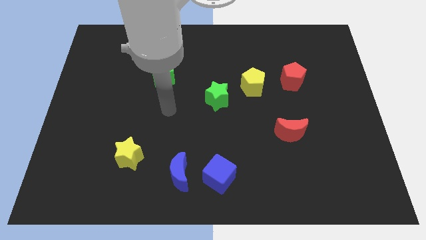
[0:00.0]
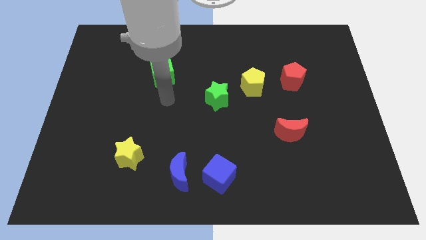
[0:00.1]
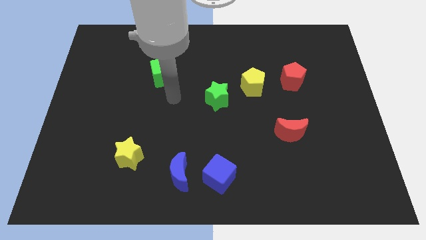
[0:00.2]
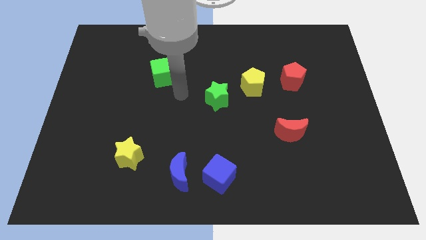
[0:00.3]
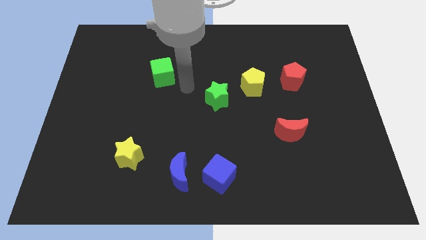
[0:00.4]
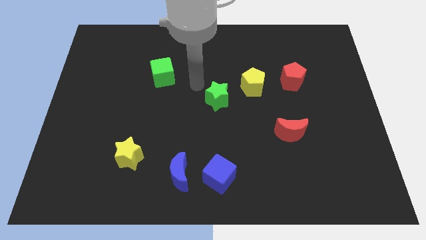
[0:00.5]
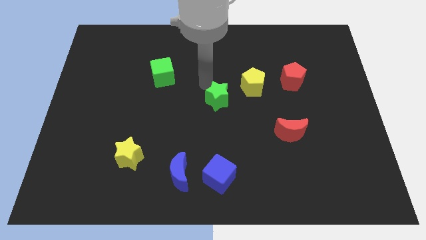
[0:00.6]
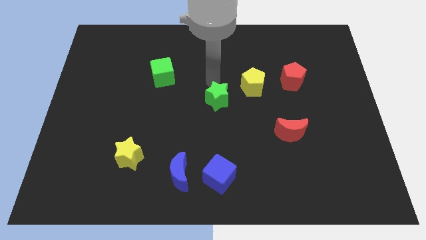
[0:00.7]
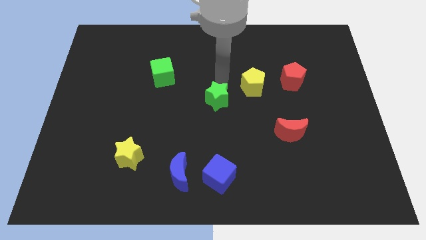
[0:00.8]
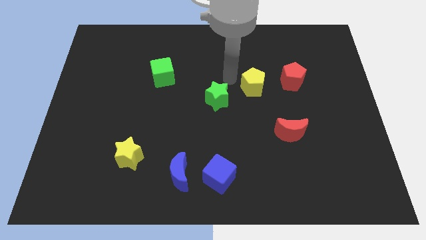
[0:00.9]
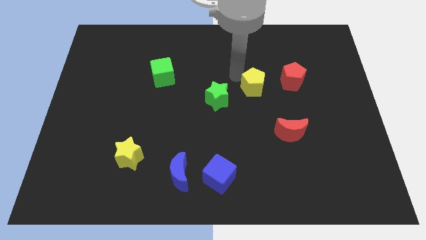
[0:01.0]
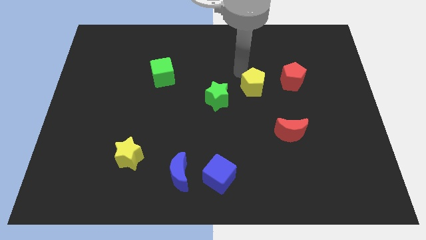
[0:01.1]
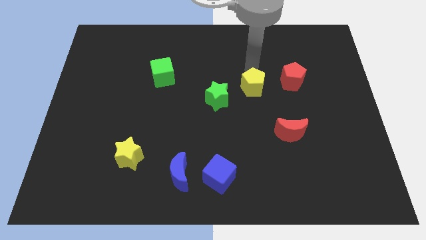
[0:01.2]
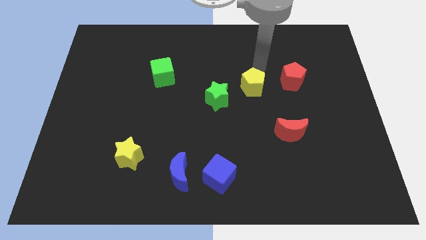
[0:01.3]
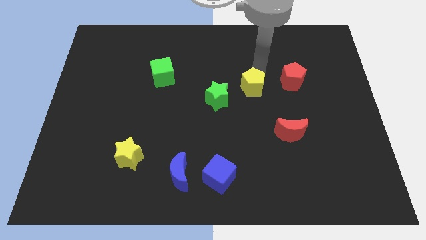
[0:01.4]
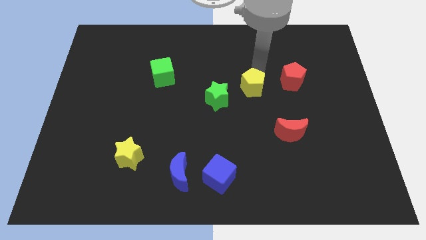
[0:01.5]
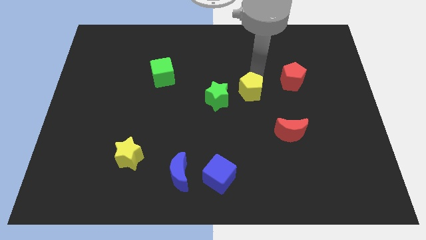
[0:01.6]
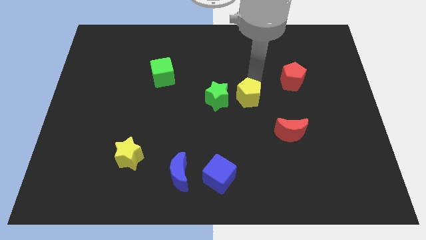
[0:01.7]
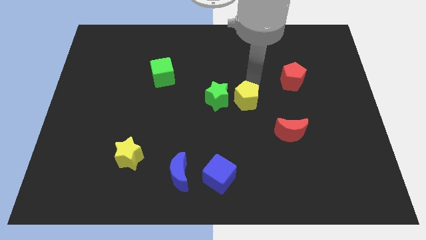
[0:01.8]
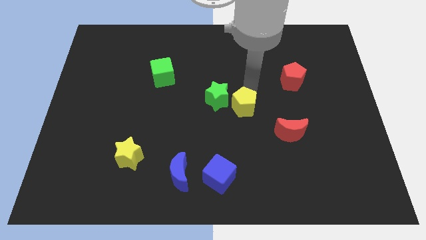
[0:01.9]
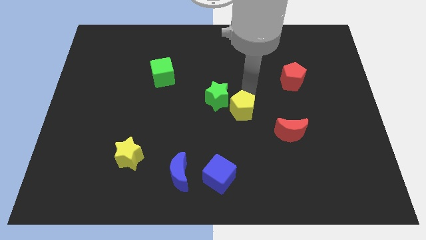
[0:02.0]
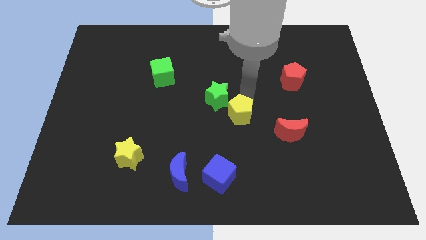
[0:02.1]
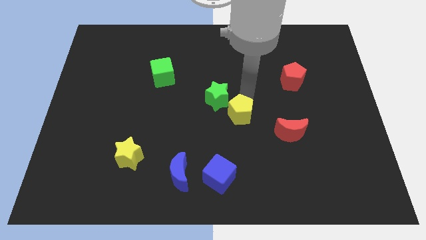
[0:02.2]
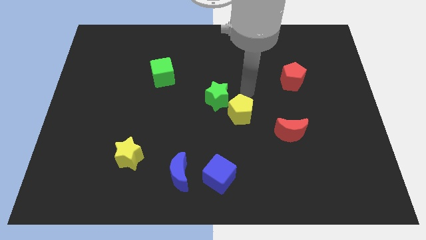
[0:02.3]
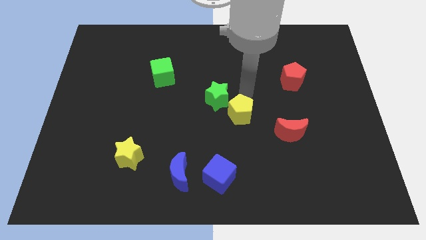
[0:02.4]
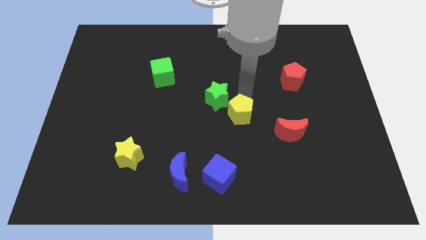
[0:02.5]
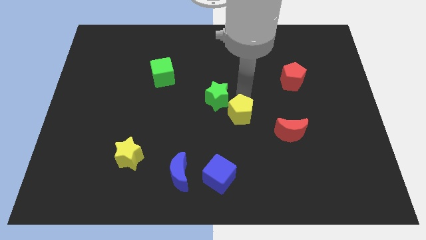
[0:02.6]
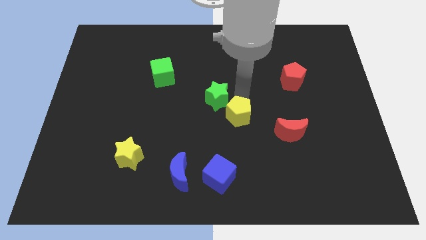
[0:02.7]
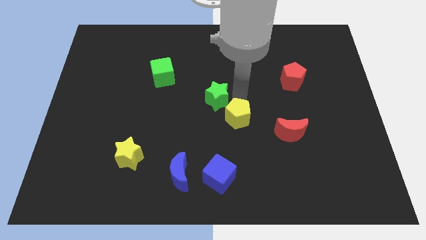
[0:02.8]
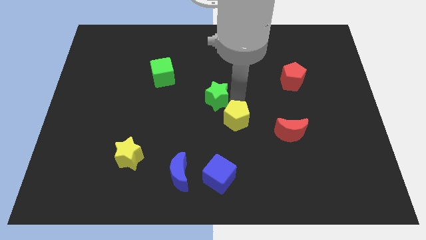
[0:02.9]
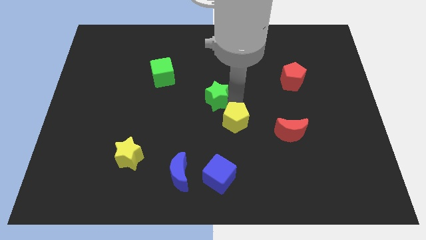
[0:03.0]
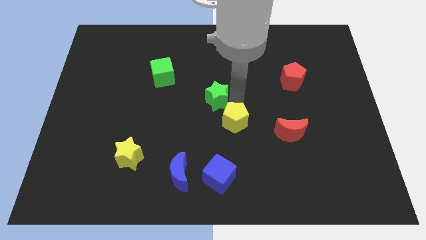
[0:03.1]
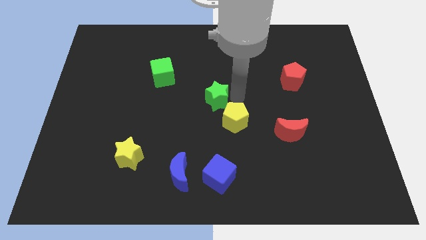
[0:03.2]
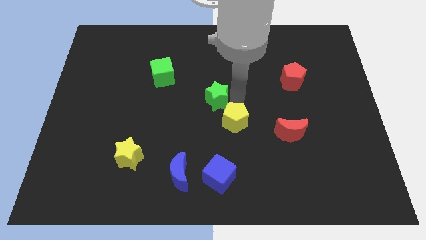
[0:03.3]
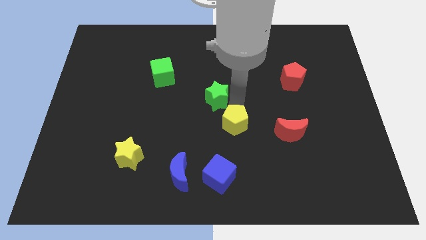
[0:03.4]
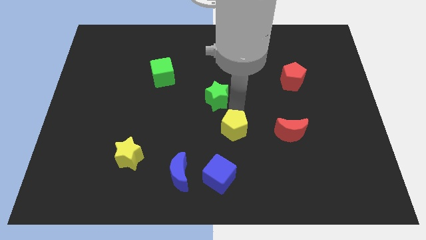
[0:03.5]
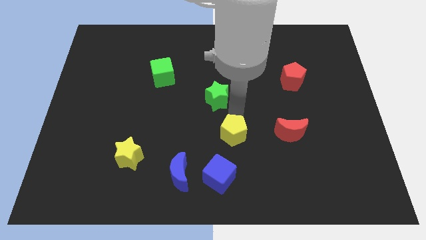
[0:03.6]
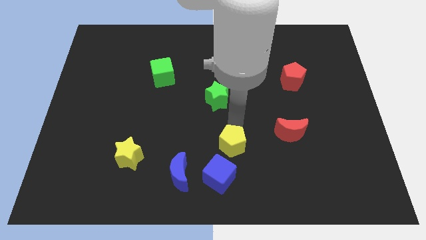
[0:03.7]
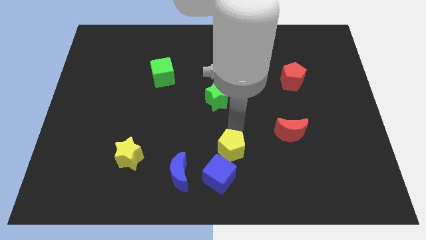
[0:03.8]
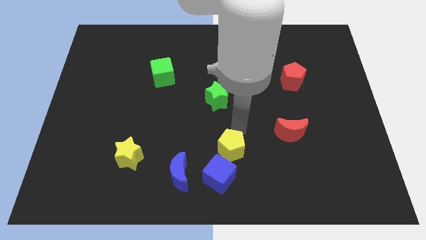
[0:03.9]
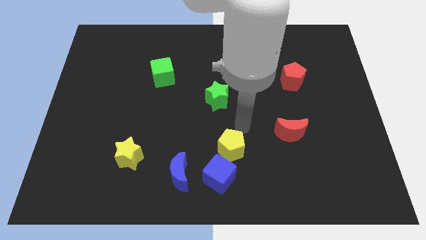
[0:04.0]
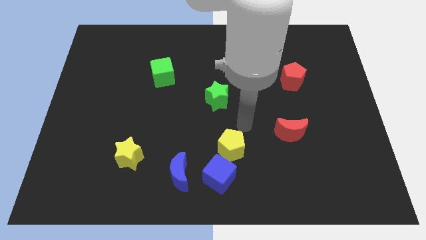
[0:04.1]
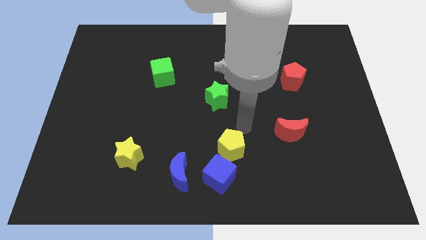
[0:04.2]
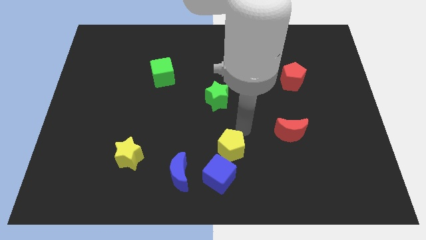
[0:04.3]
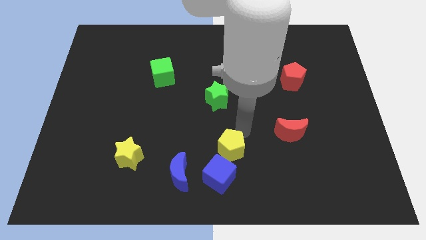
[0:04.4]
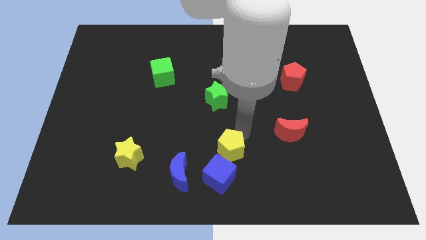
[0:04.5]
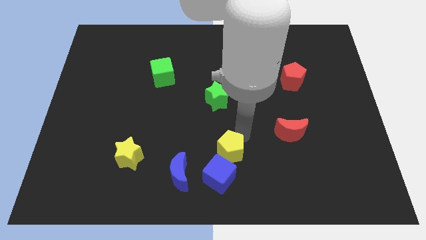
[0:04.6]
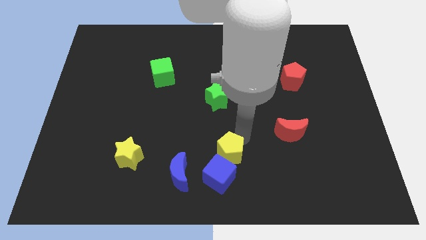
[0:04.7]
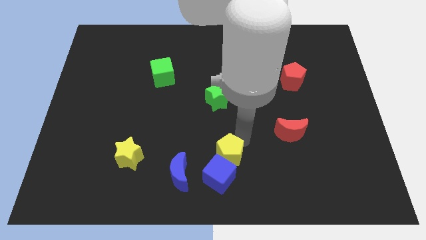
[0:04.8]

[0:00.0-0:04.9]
push the yellow pentagon towards the blue cube

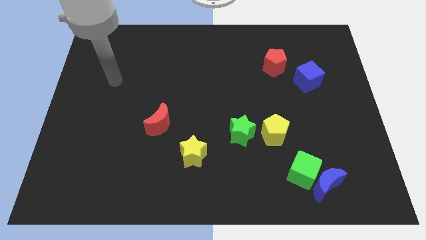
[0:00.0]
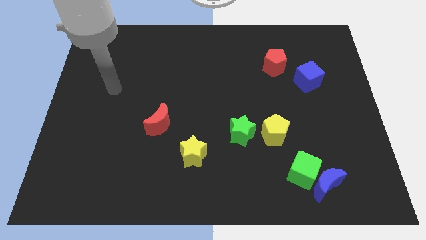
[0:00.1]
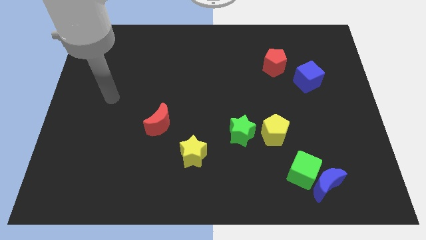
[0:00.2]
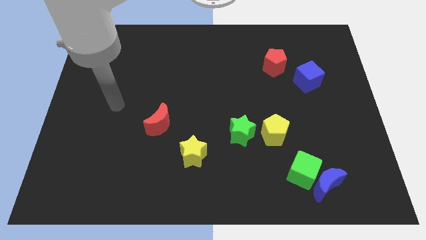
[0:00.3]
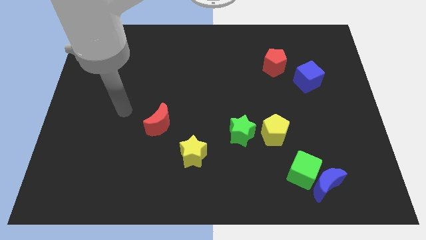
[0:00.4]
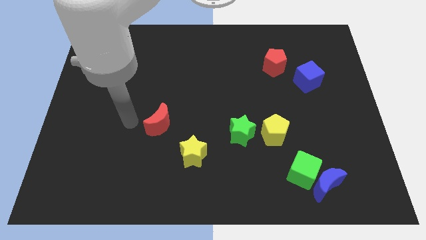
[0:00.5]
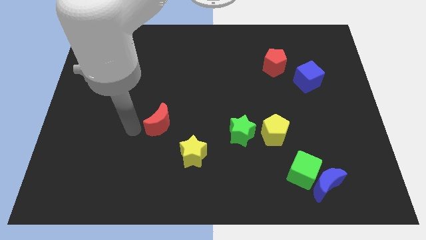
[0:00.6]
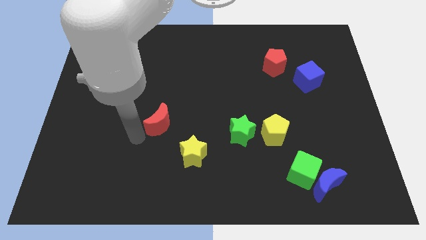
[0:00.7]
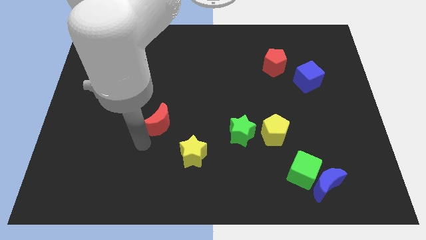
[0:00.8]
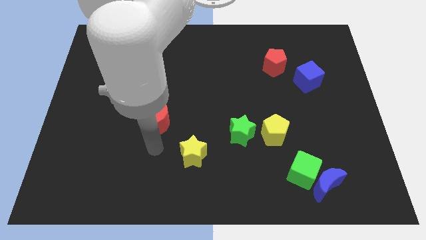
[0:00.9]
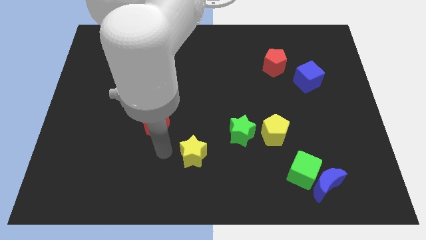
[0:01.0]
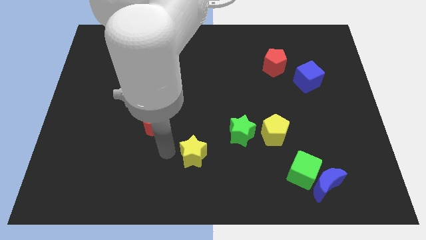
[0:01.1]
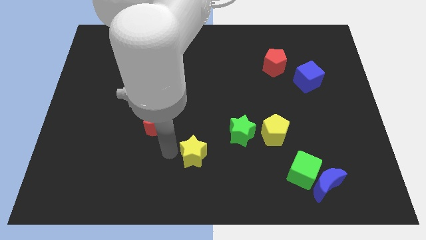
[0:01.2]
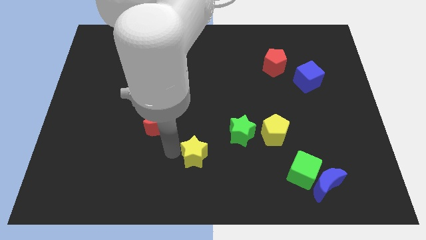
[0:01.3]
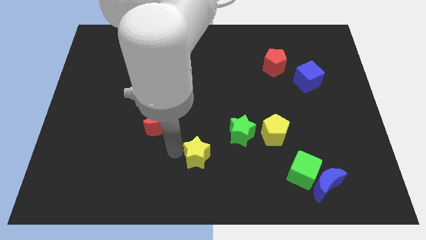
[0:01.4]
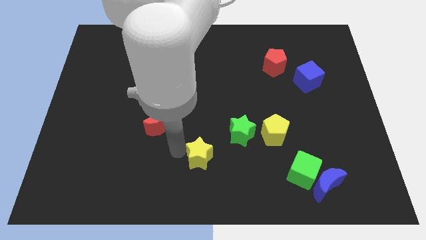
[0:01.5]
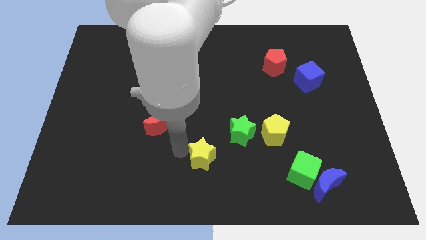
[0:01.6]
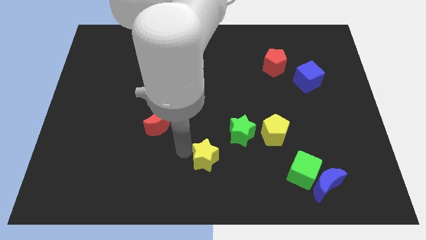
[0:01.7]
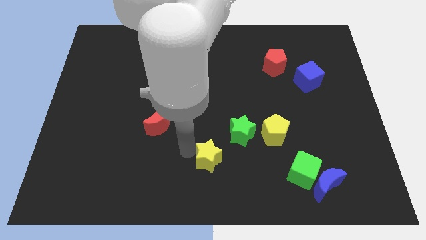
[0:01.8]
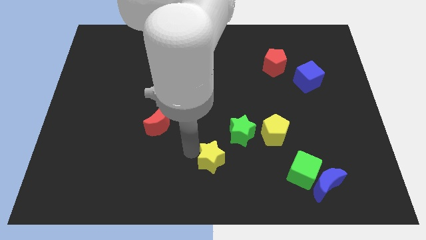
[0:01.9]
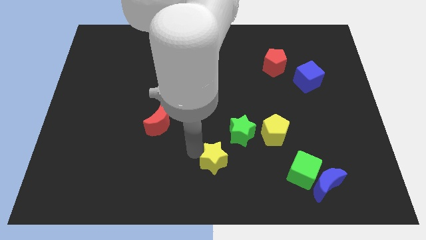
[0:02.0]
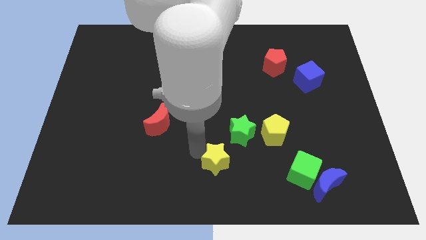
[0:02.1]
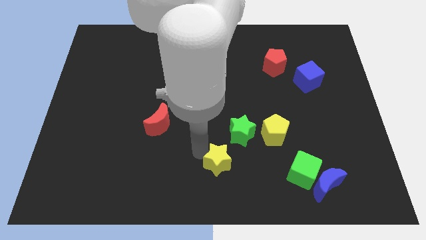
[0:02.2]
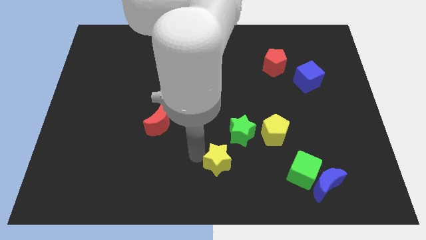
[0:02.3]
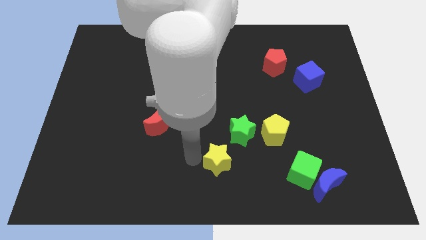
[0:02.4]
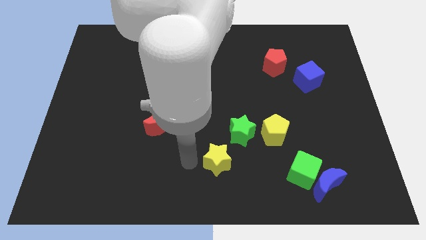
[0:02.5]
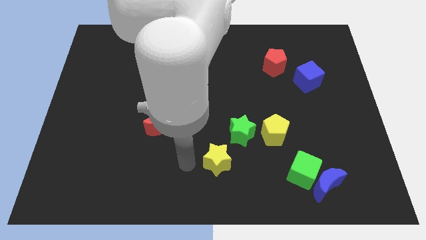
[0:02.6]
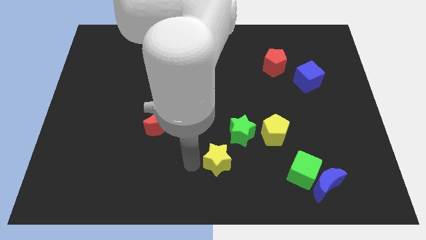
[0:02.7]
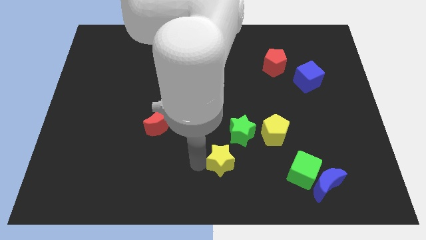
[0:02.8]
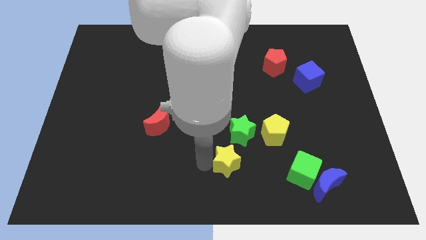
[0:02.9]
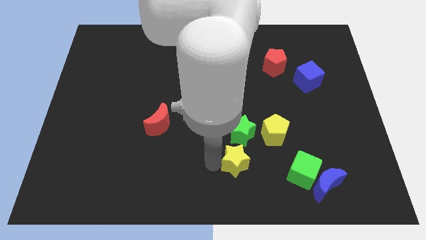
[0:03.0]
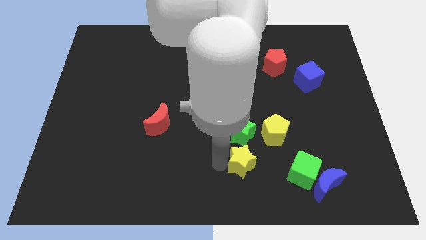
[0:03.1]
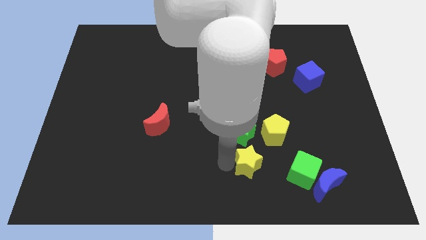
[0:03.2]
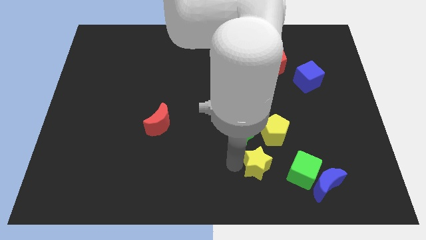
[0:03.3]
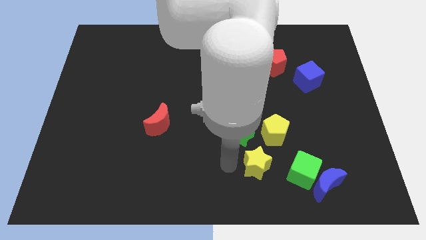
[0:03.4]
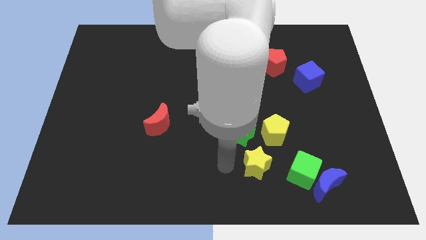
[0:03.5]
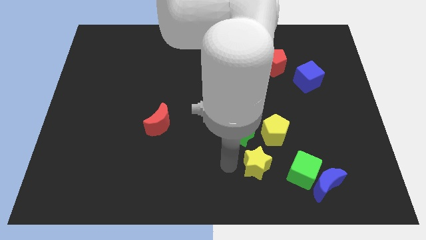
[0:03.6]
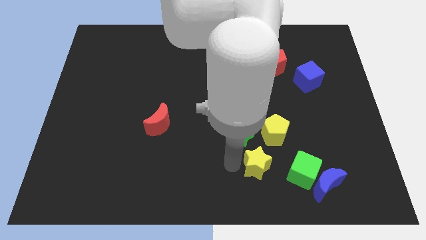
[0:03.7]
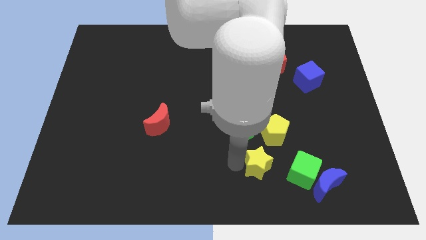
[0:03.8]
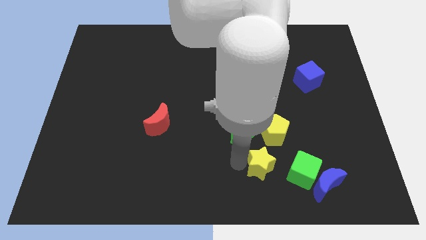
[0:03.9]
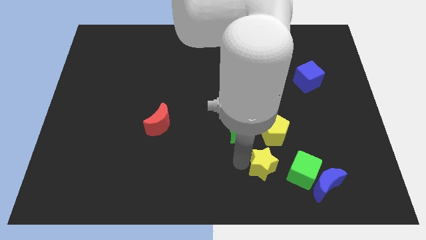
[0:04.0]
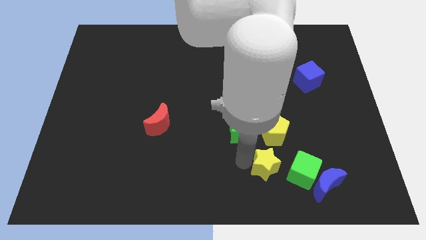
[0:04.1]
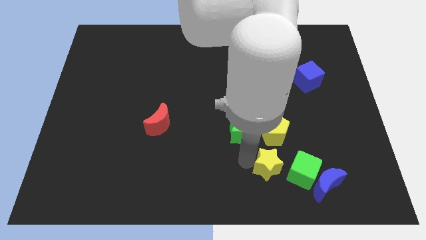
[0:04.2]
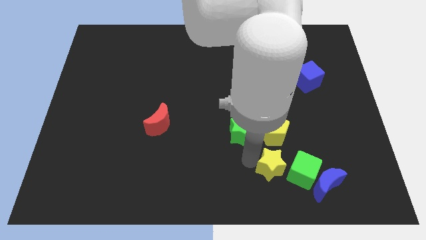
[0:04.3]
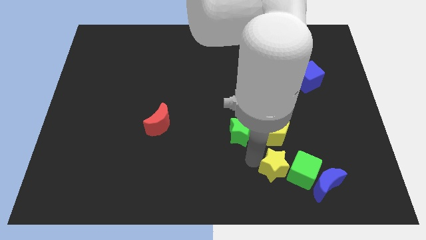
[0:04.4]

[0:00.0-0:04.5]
move the yellow star next to the green cube
